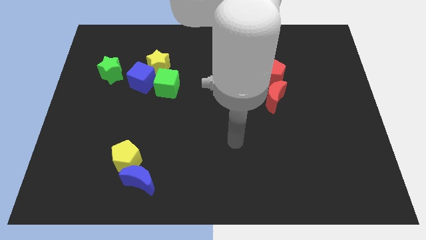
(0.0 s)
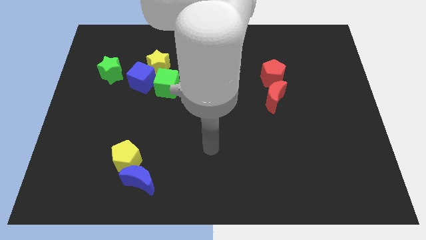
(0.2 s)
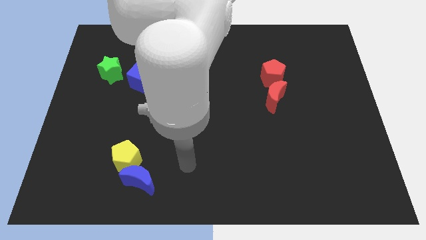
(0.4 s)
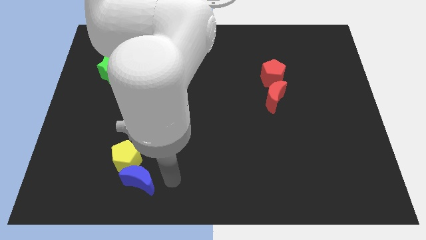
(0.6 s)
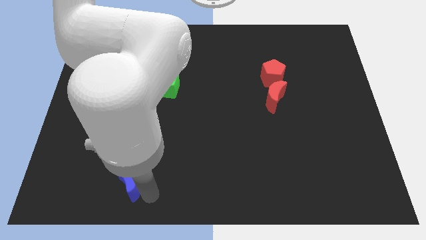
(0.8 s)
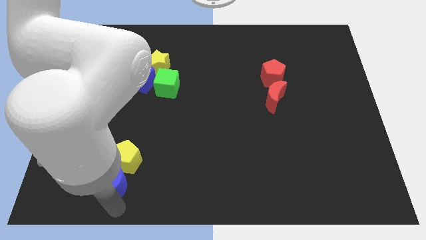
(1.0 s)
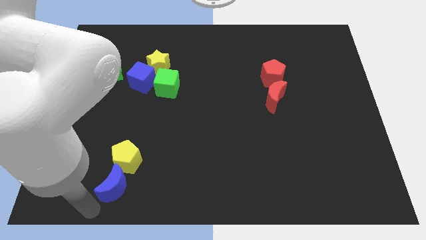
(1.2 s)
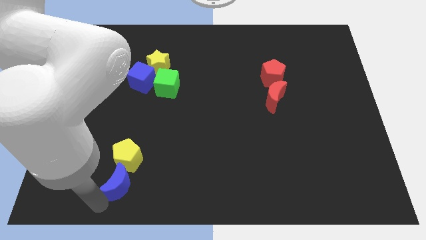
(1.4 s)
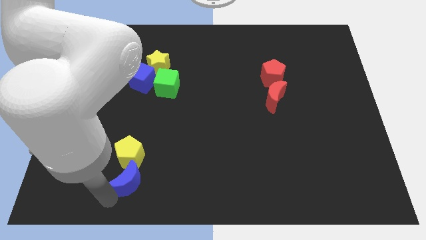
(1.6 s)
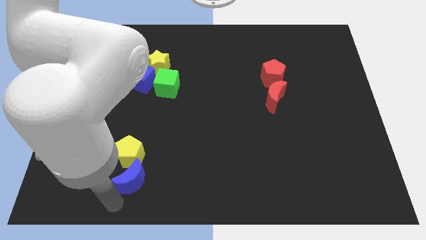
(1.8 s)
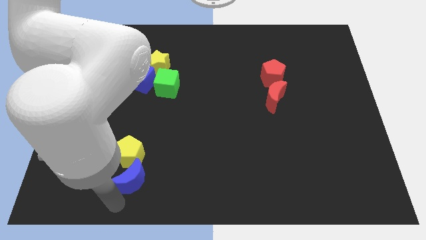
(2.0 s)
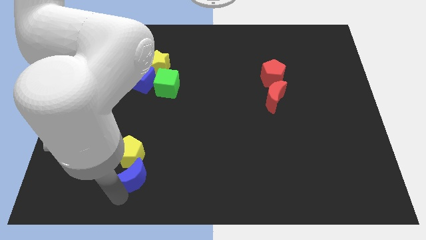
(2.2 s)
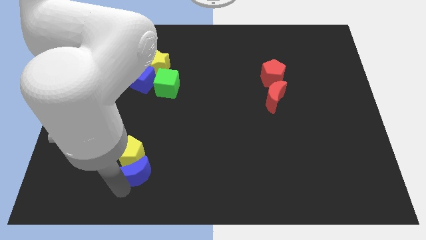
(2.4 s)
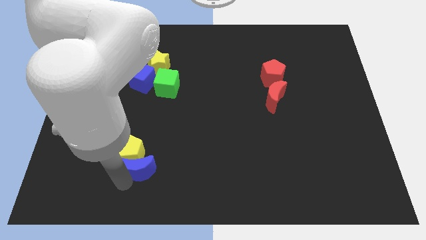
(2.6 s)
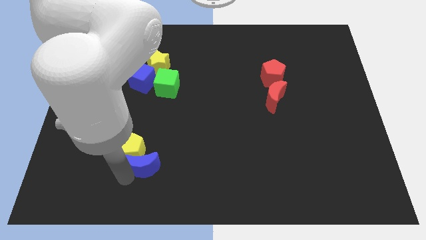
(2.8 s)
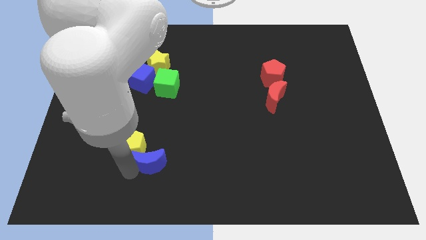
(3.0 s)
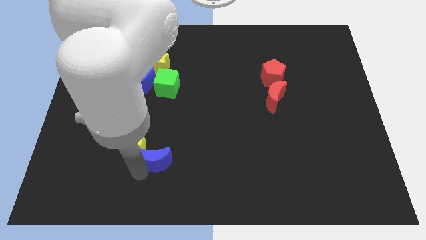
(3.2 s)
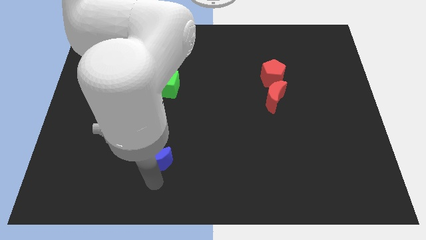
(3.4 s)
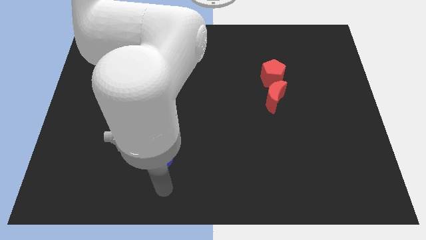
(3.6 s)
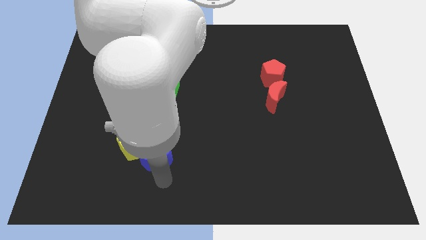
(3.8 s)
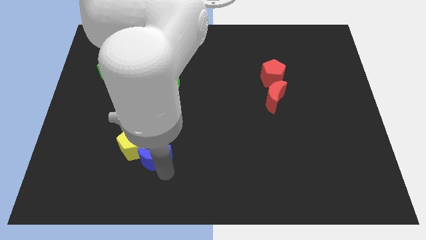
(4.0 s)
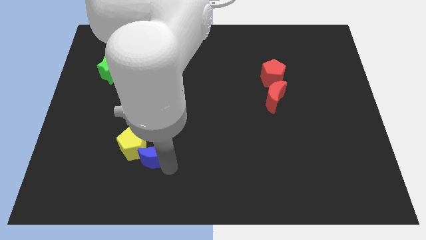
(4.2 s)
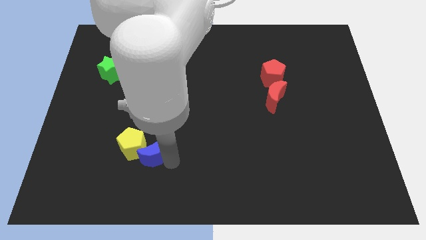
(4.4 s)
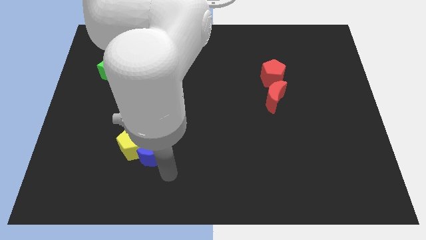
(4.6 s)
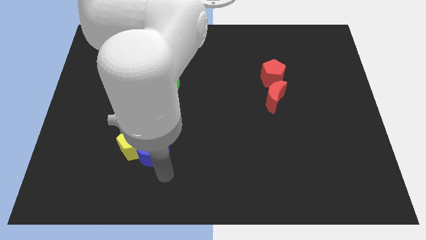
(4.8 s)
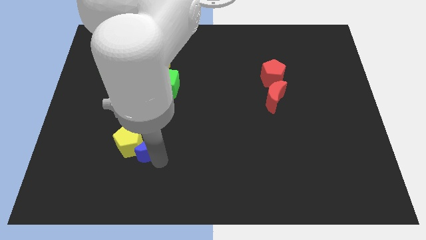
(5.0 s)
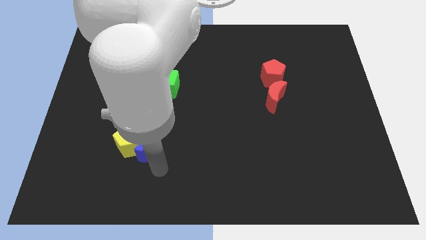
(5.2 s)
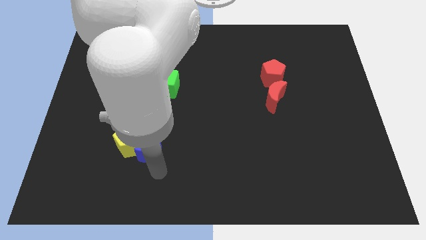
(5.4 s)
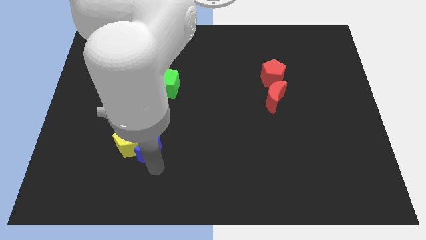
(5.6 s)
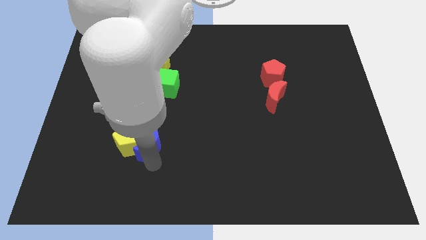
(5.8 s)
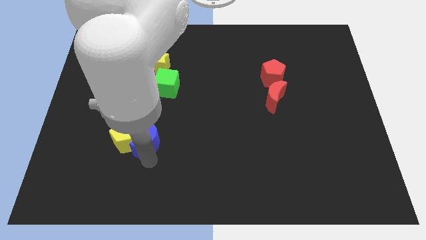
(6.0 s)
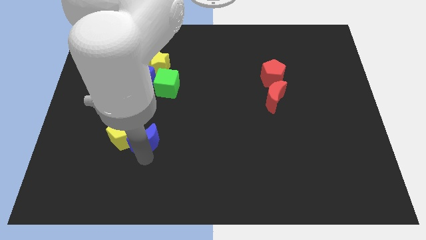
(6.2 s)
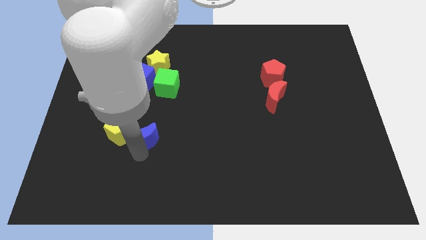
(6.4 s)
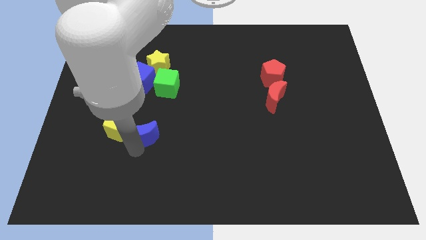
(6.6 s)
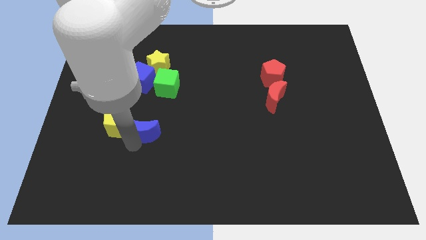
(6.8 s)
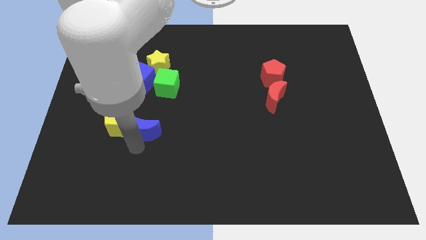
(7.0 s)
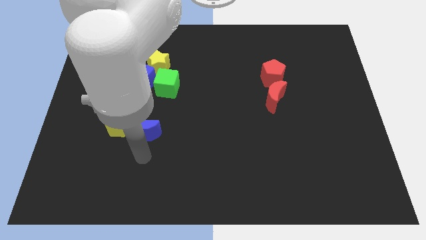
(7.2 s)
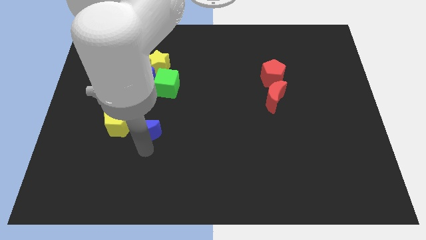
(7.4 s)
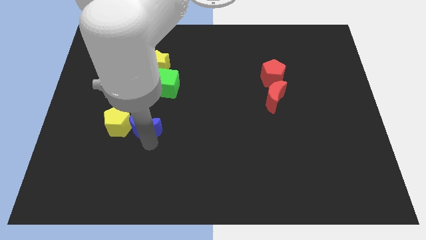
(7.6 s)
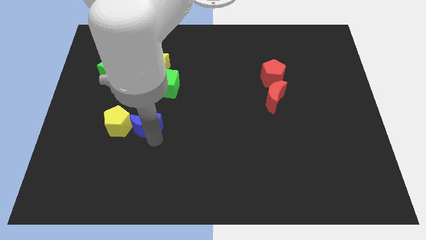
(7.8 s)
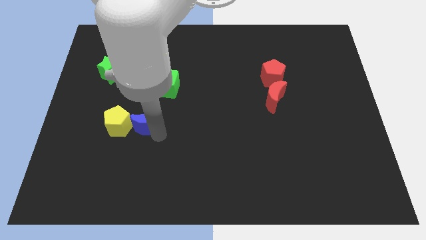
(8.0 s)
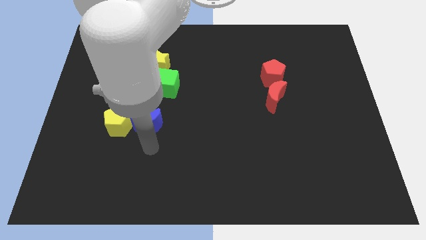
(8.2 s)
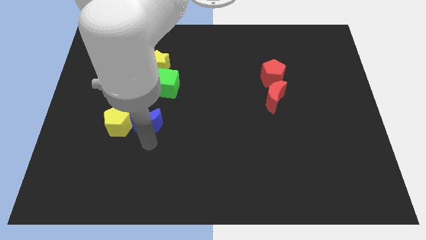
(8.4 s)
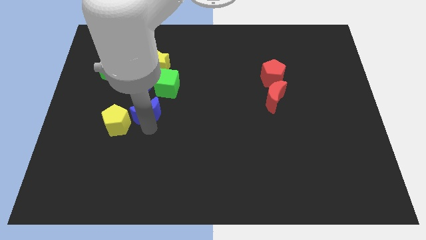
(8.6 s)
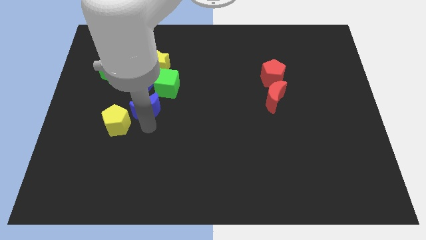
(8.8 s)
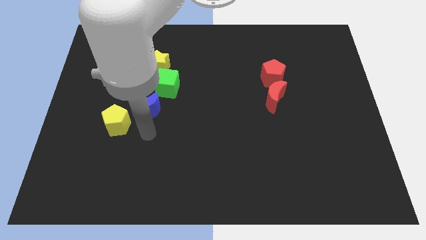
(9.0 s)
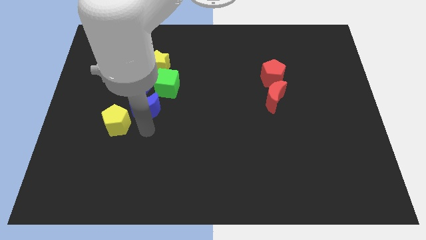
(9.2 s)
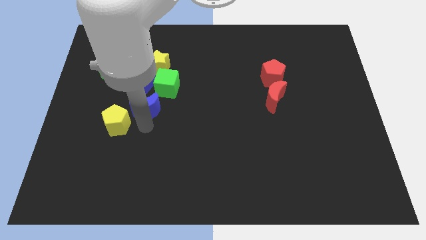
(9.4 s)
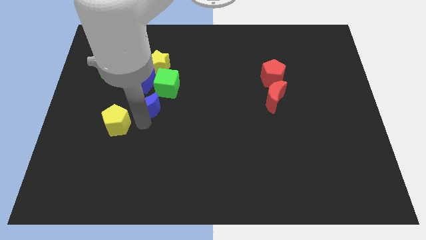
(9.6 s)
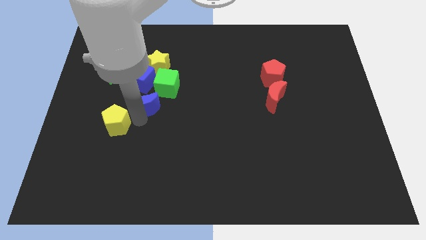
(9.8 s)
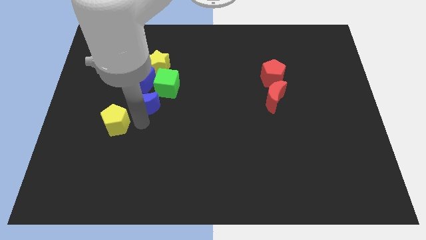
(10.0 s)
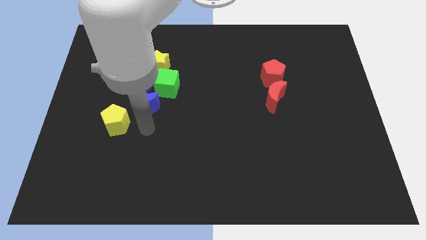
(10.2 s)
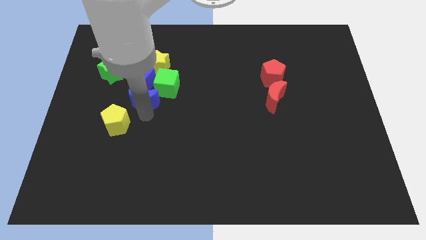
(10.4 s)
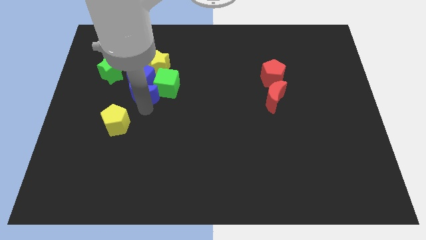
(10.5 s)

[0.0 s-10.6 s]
slide the blue moon next to the blue cube

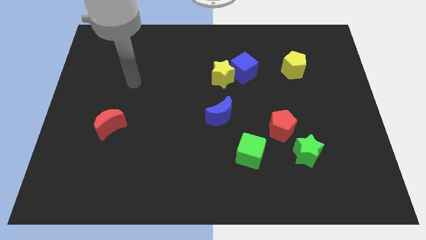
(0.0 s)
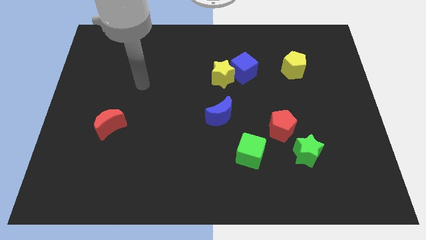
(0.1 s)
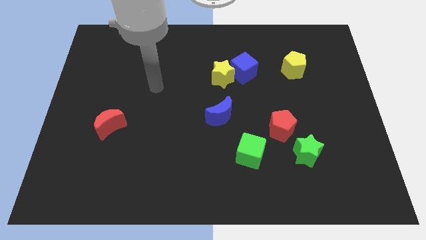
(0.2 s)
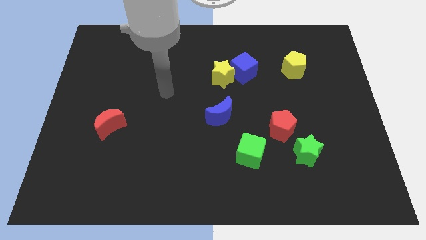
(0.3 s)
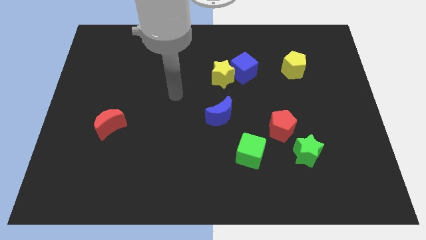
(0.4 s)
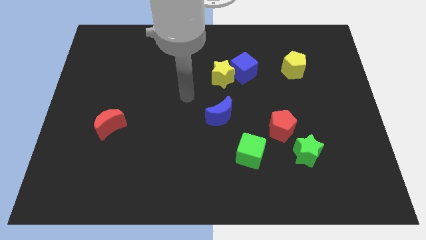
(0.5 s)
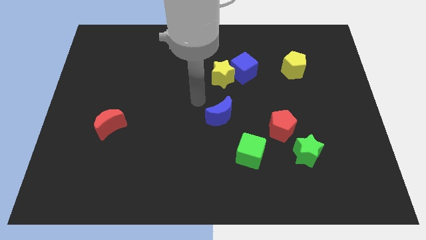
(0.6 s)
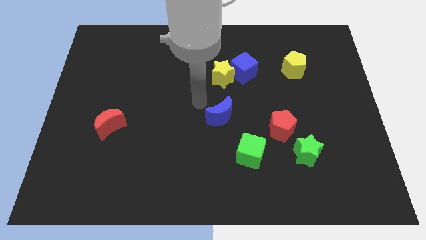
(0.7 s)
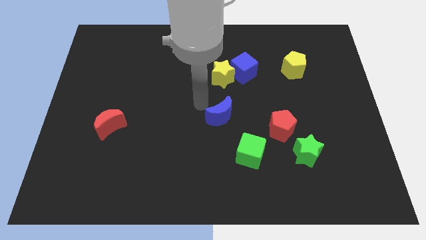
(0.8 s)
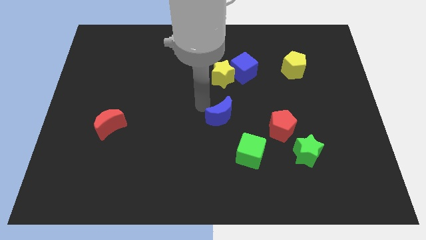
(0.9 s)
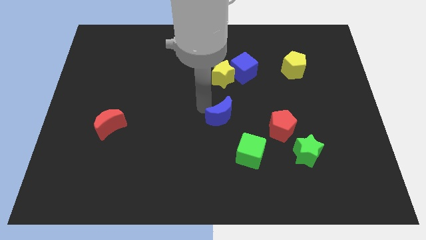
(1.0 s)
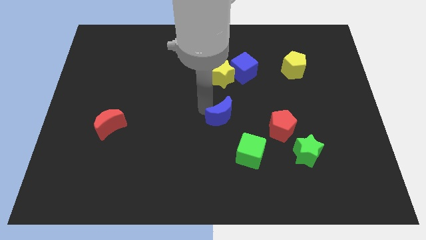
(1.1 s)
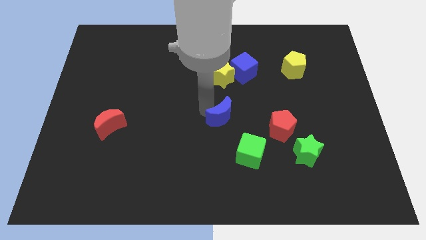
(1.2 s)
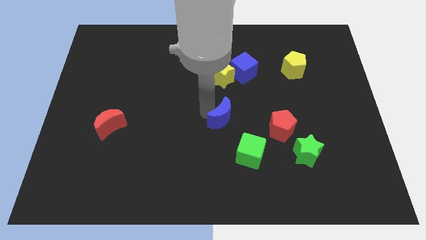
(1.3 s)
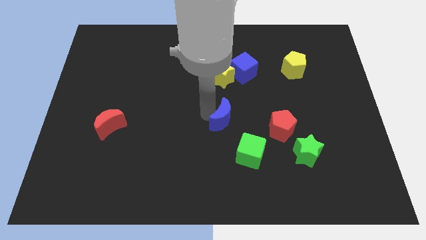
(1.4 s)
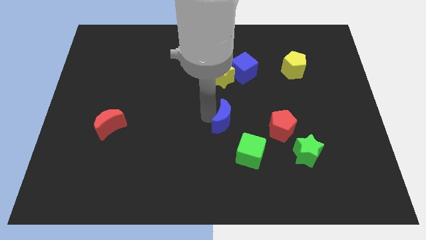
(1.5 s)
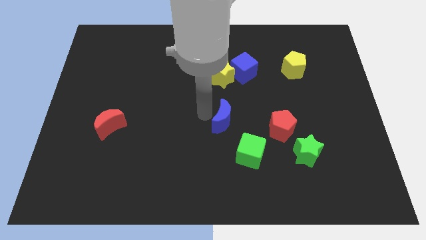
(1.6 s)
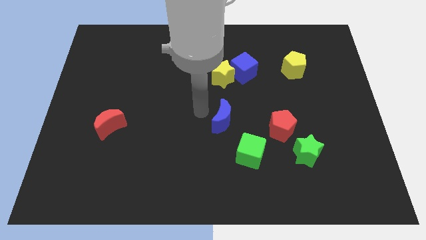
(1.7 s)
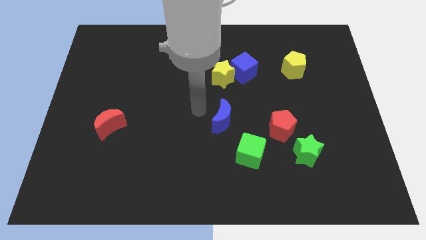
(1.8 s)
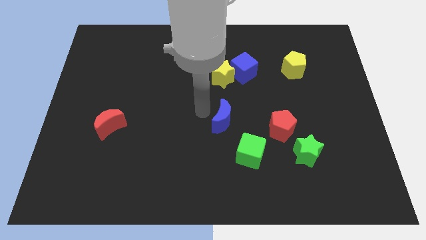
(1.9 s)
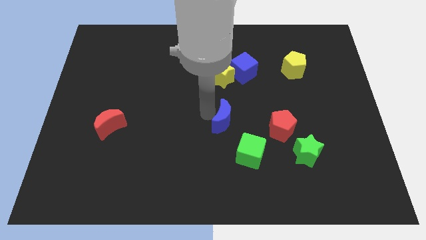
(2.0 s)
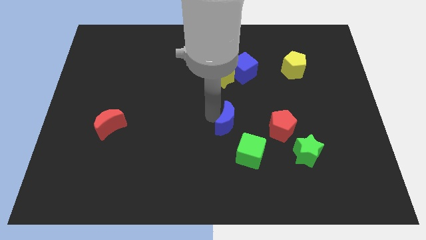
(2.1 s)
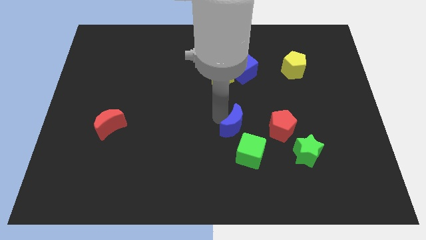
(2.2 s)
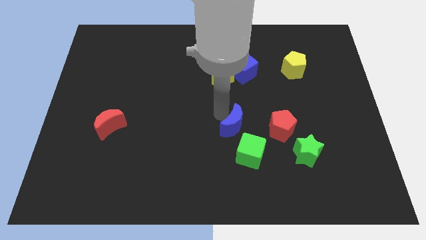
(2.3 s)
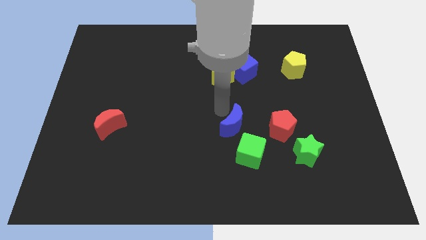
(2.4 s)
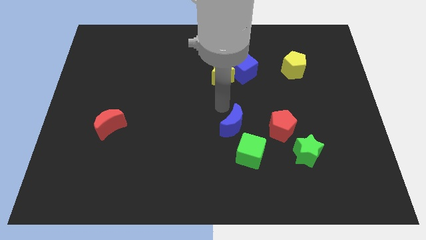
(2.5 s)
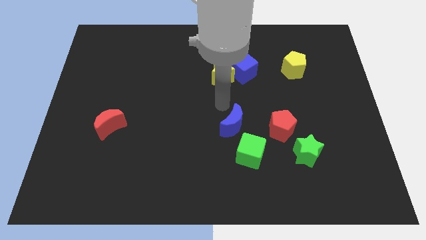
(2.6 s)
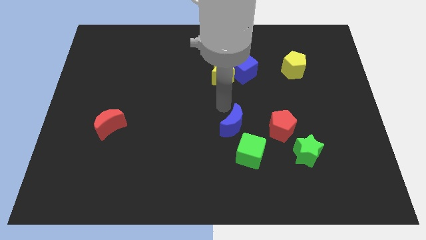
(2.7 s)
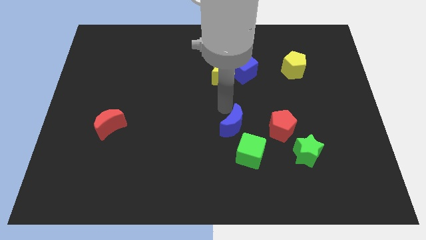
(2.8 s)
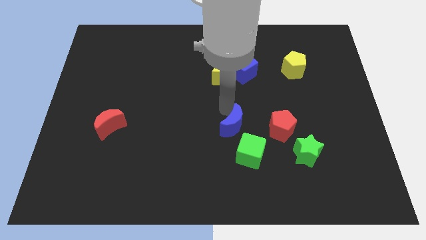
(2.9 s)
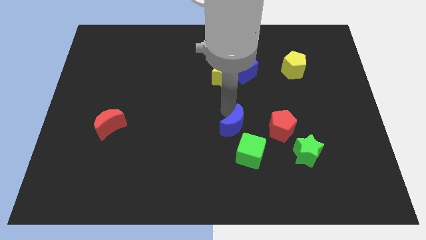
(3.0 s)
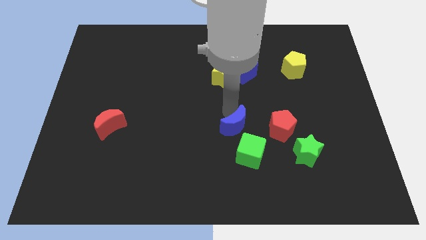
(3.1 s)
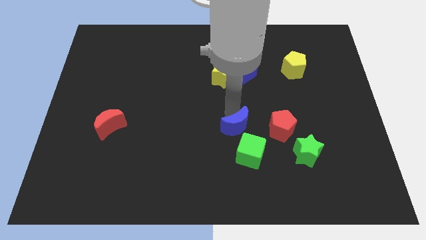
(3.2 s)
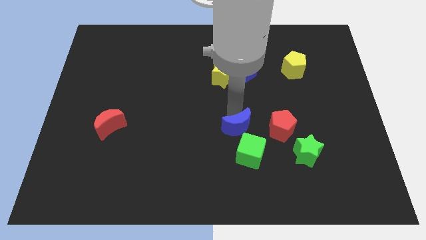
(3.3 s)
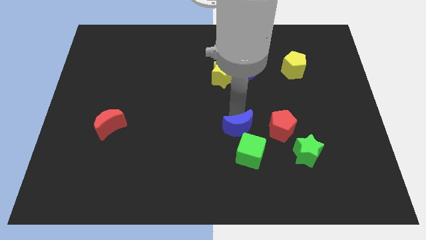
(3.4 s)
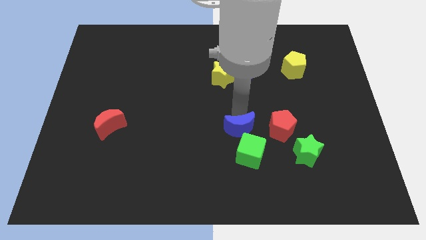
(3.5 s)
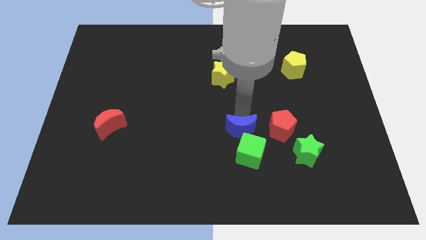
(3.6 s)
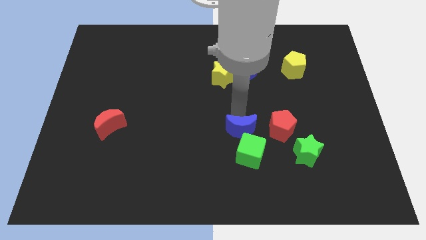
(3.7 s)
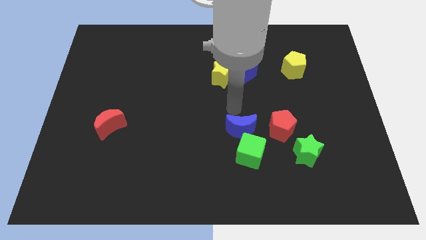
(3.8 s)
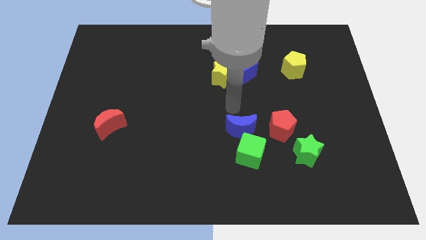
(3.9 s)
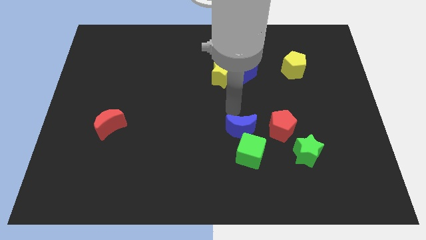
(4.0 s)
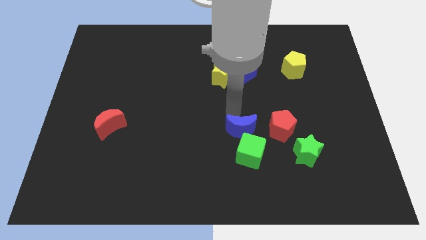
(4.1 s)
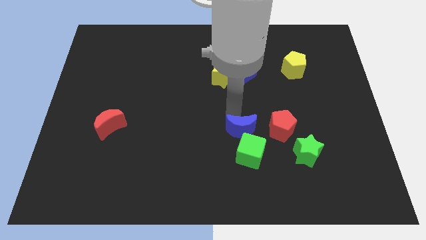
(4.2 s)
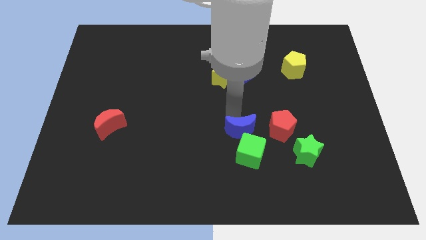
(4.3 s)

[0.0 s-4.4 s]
slide the blue moon towards the green cube
